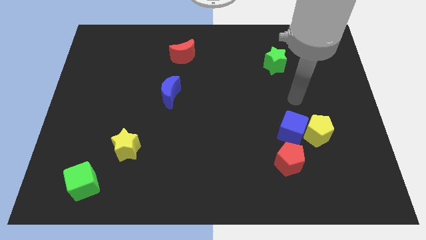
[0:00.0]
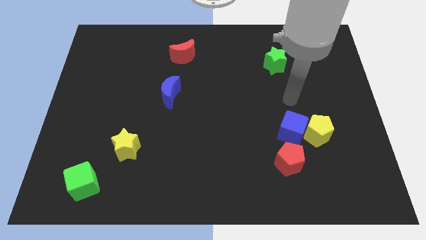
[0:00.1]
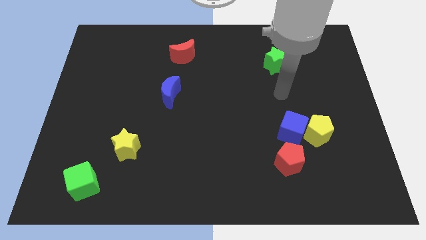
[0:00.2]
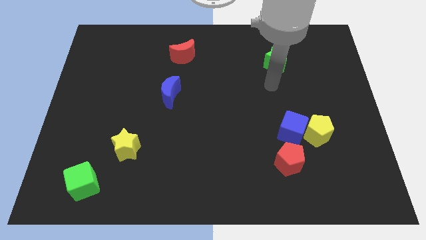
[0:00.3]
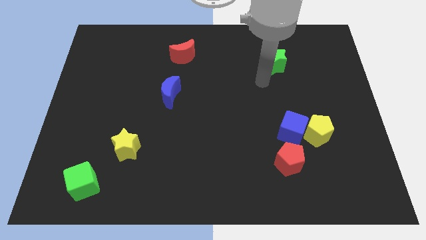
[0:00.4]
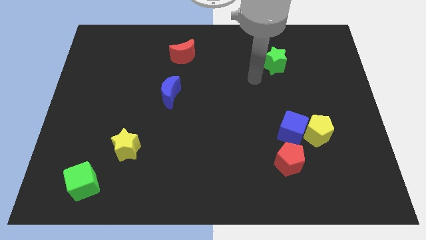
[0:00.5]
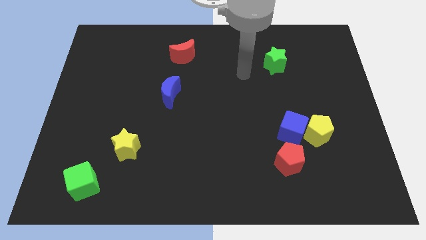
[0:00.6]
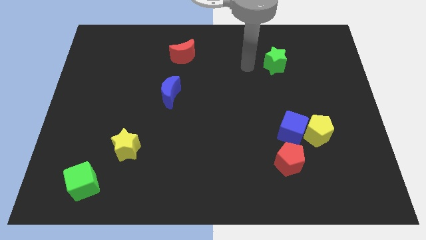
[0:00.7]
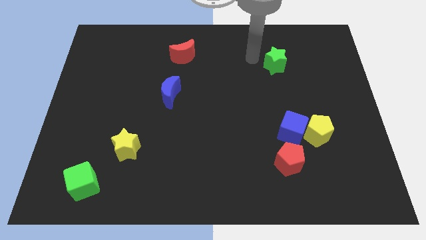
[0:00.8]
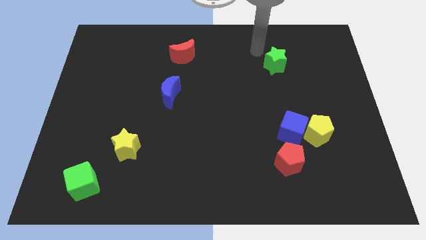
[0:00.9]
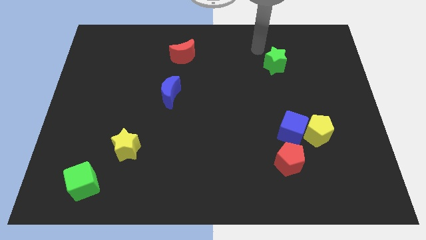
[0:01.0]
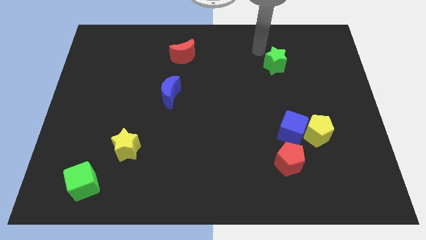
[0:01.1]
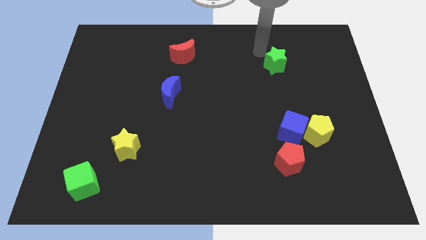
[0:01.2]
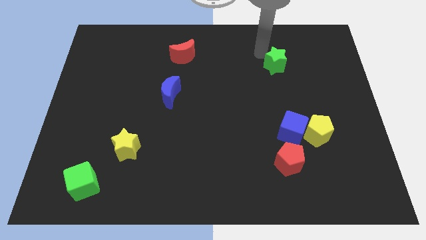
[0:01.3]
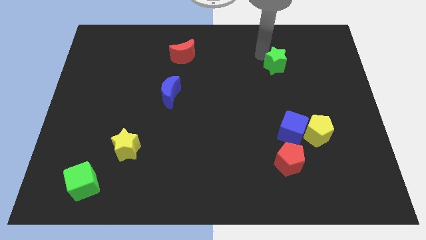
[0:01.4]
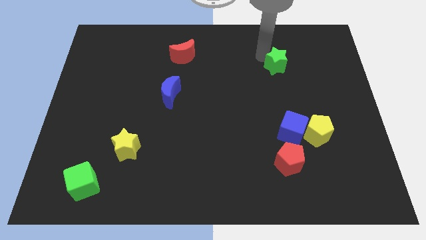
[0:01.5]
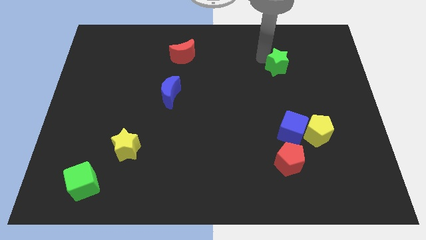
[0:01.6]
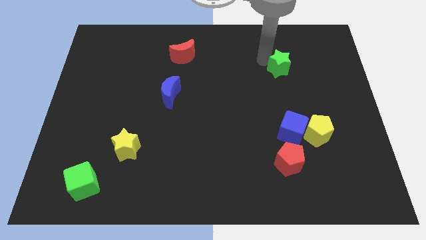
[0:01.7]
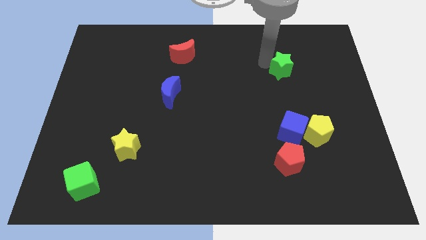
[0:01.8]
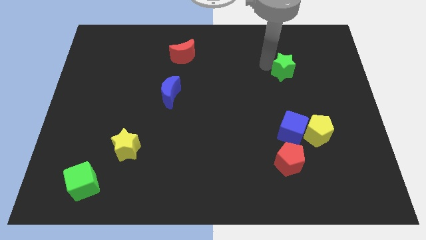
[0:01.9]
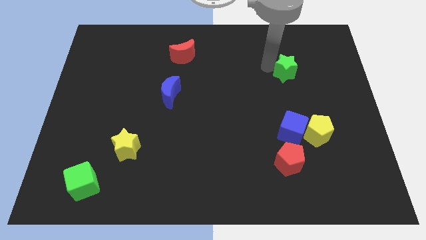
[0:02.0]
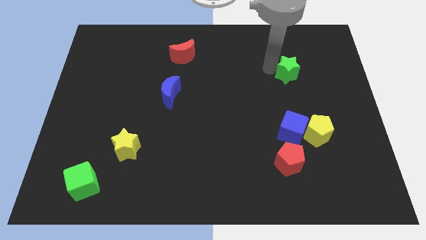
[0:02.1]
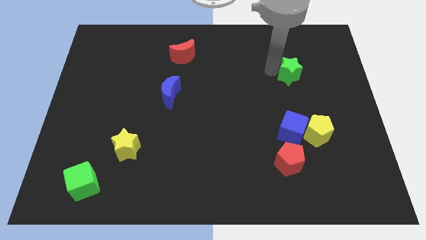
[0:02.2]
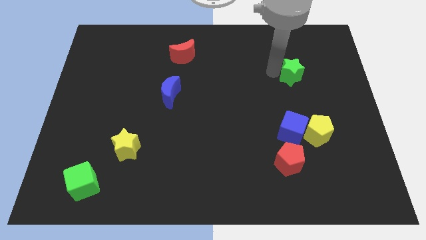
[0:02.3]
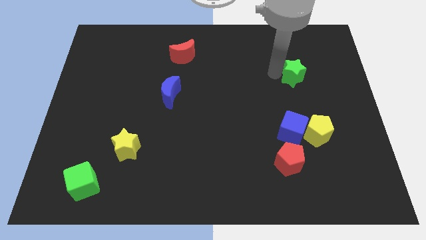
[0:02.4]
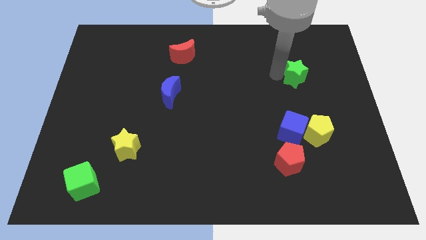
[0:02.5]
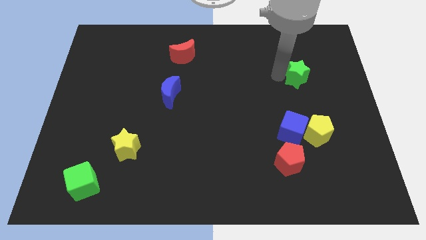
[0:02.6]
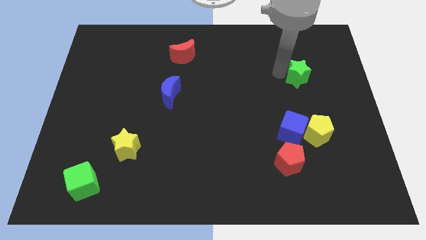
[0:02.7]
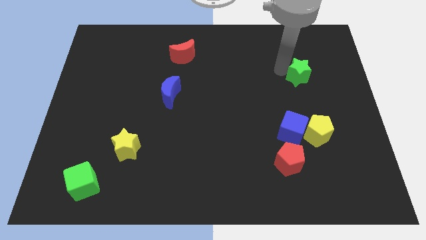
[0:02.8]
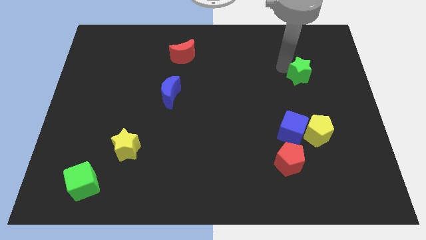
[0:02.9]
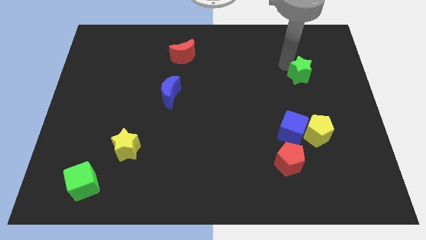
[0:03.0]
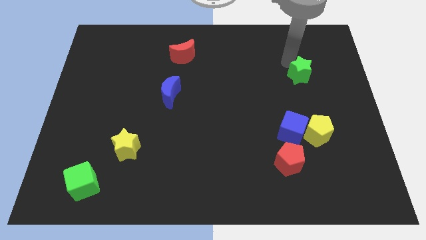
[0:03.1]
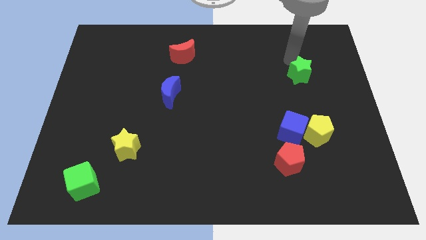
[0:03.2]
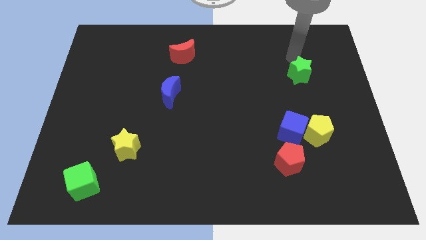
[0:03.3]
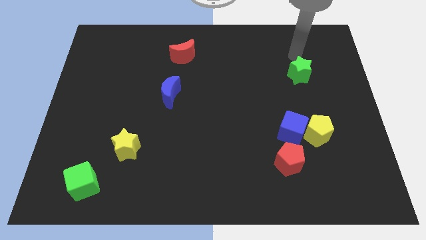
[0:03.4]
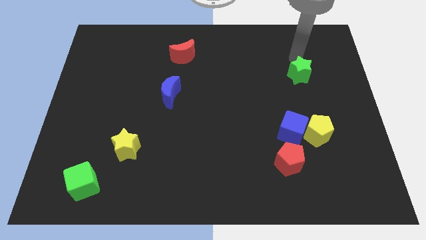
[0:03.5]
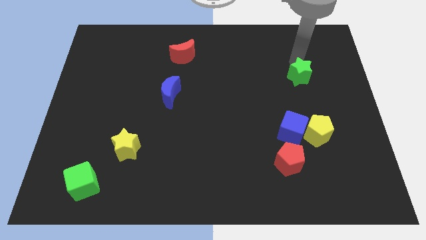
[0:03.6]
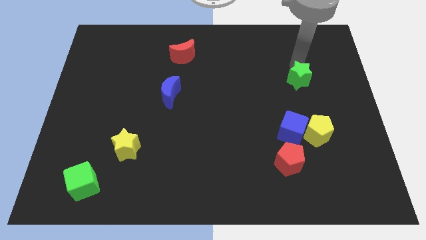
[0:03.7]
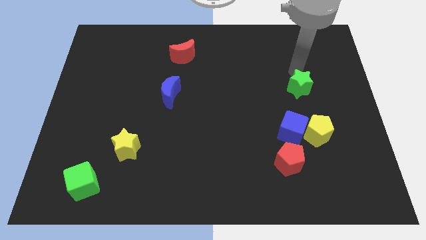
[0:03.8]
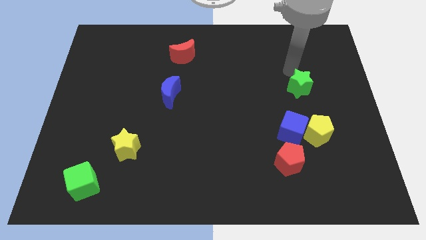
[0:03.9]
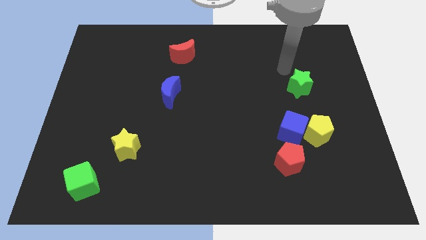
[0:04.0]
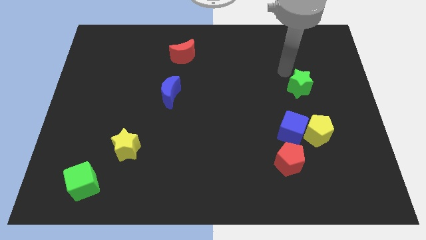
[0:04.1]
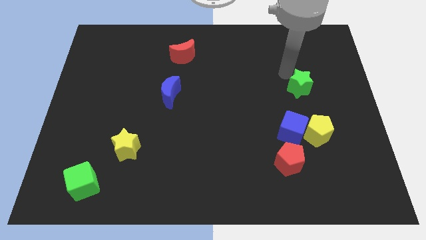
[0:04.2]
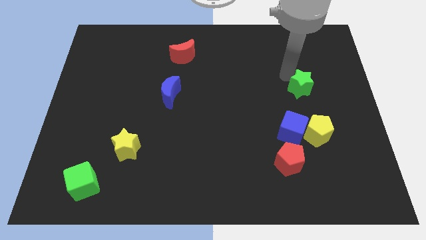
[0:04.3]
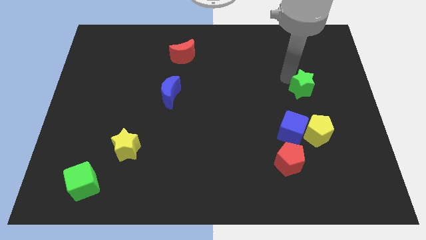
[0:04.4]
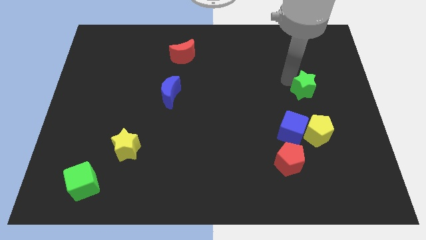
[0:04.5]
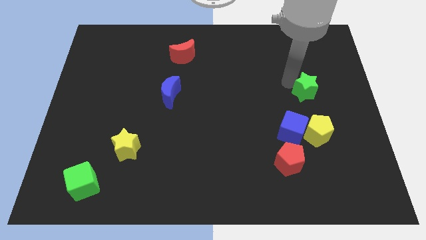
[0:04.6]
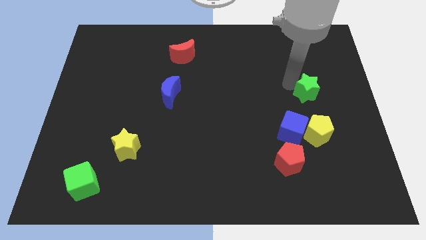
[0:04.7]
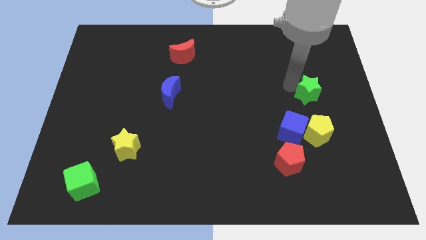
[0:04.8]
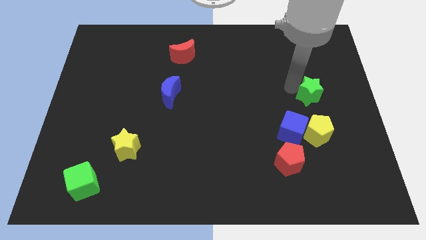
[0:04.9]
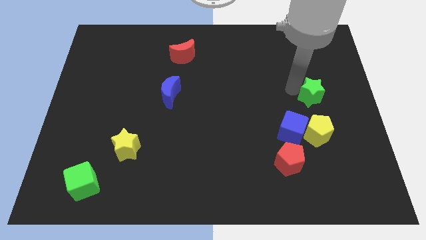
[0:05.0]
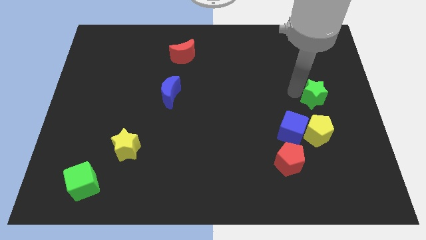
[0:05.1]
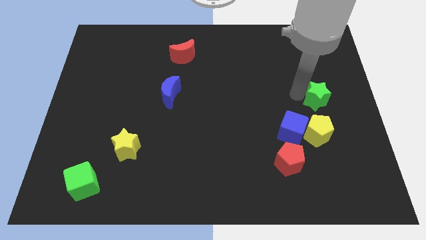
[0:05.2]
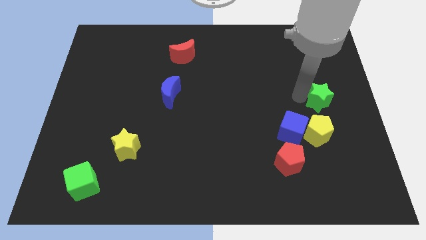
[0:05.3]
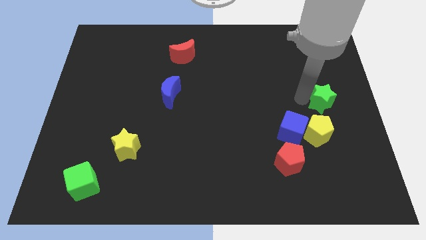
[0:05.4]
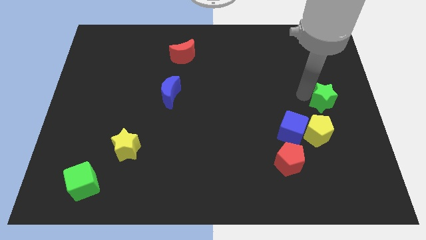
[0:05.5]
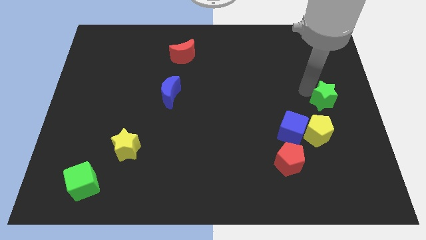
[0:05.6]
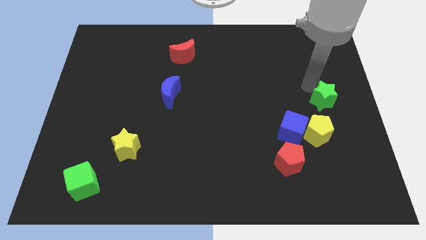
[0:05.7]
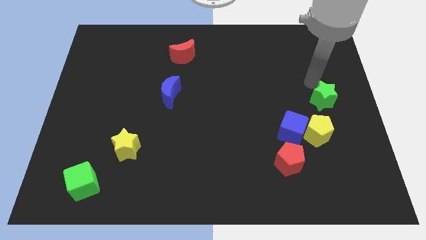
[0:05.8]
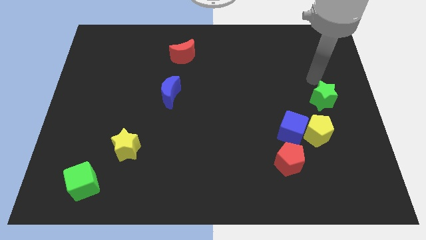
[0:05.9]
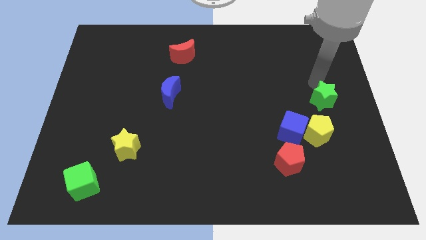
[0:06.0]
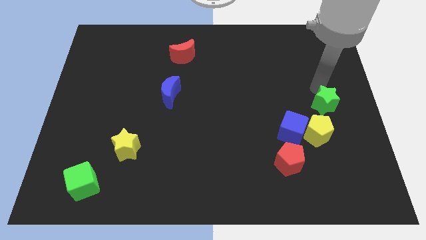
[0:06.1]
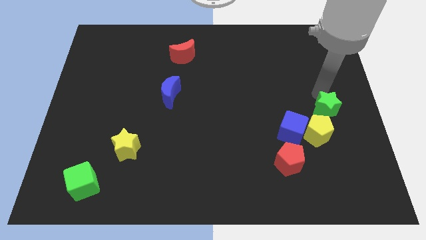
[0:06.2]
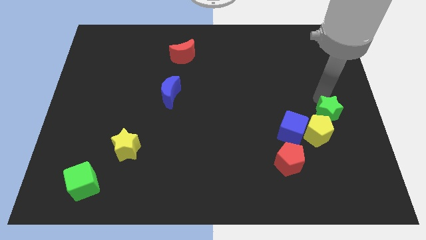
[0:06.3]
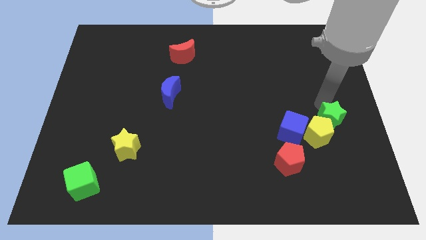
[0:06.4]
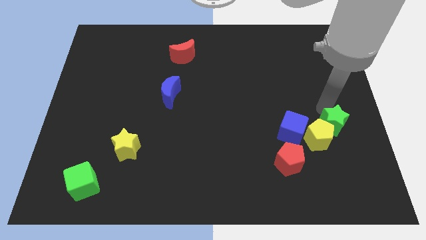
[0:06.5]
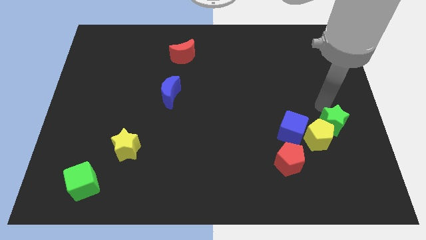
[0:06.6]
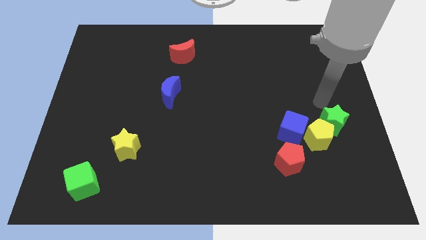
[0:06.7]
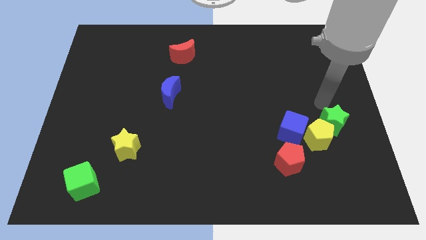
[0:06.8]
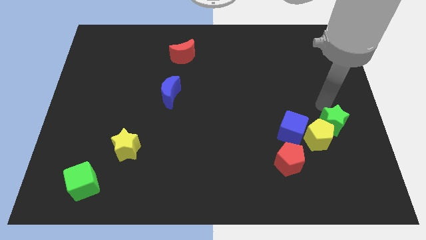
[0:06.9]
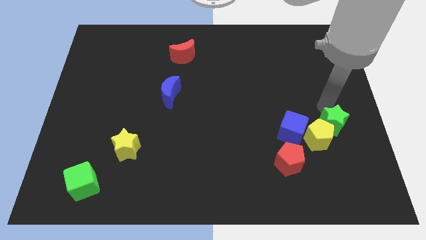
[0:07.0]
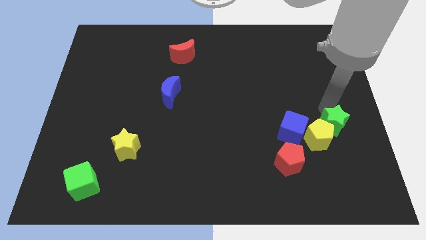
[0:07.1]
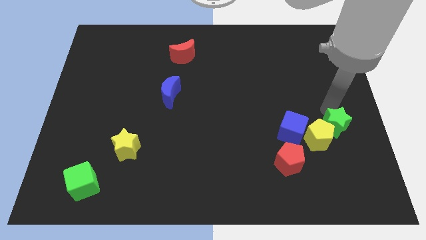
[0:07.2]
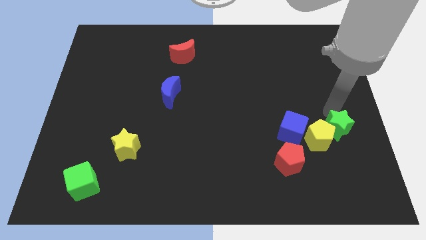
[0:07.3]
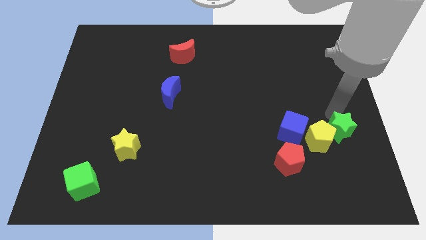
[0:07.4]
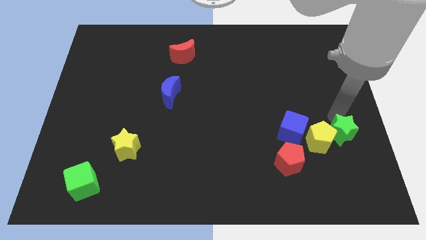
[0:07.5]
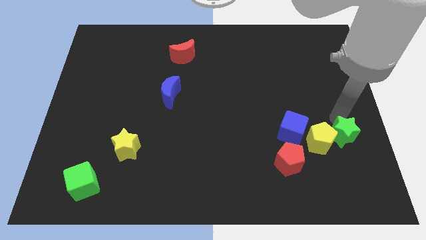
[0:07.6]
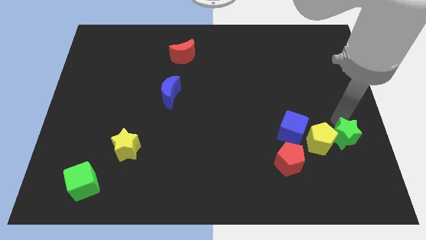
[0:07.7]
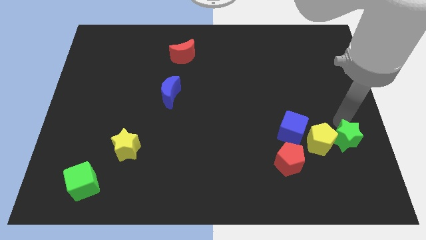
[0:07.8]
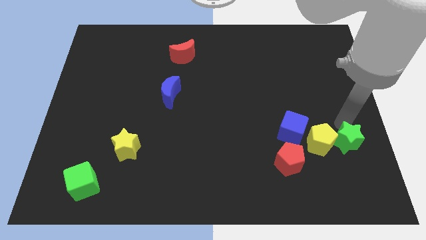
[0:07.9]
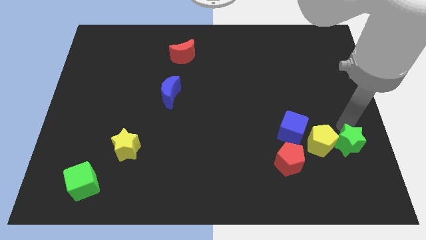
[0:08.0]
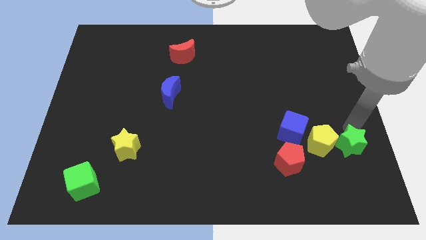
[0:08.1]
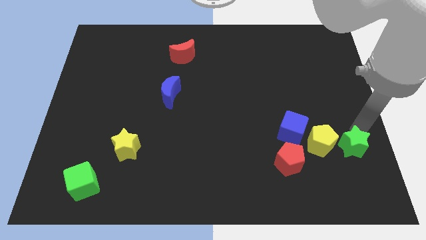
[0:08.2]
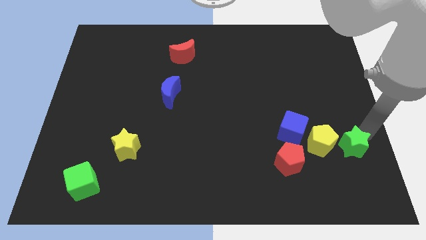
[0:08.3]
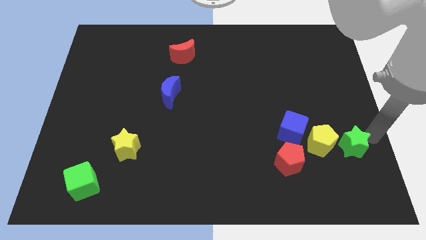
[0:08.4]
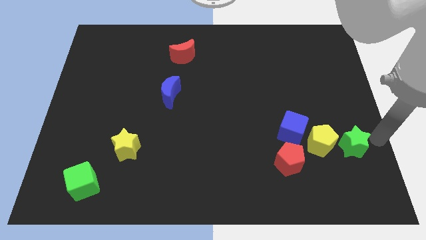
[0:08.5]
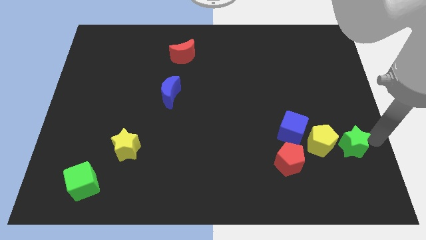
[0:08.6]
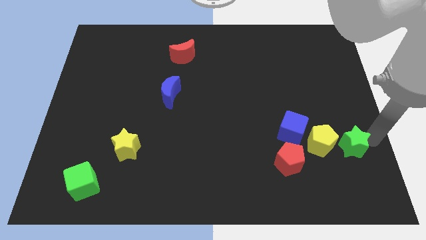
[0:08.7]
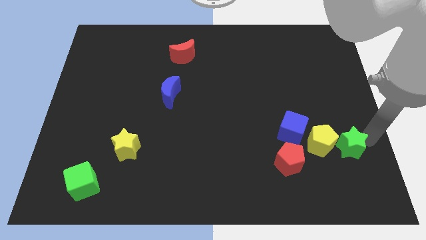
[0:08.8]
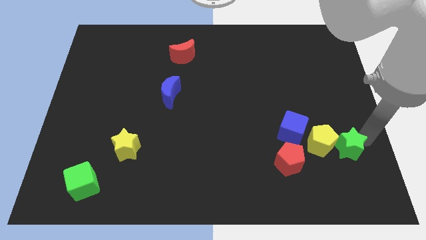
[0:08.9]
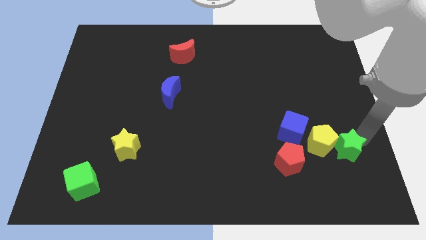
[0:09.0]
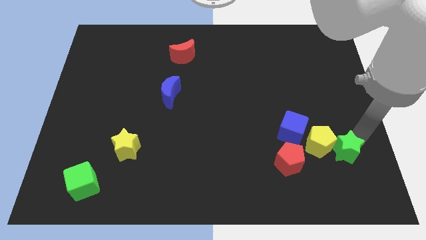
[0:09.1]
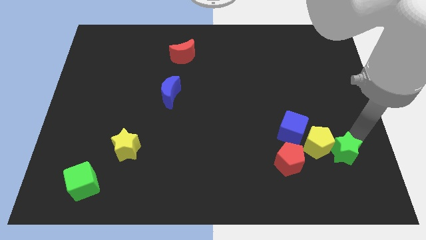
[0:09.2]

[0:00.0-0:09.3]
slide the green star to the bottom right side of the blue cube
